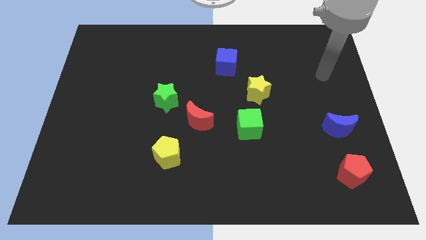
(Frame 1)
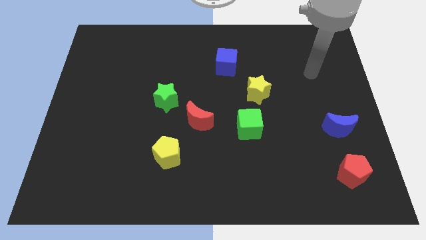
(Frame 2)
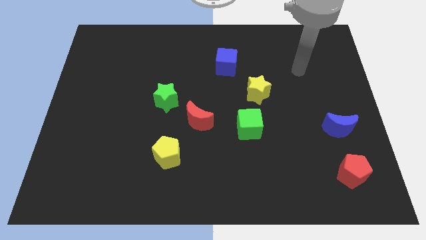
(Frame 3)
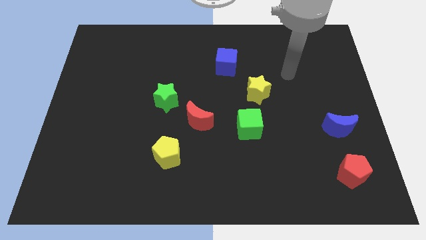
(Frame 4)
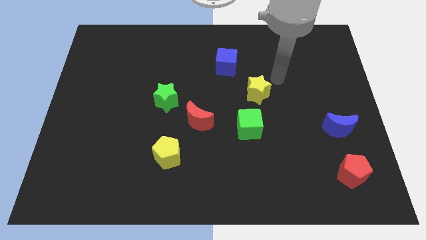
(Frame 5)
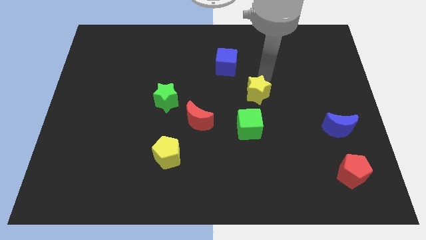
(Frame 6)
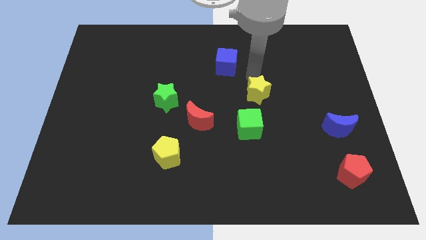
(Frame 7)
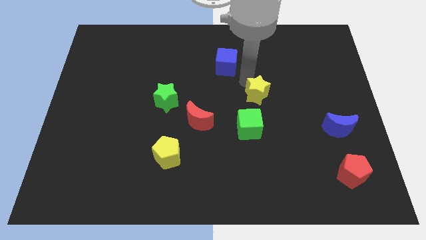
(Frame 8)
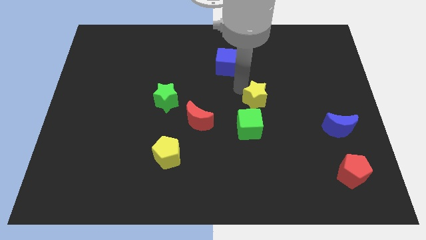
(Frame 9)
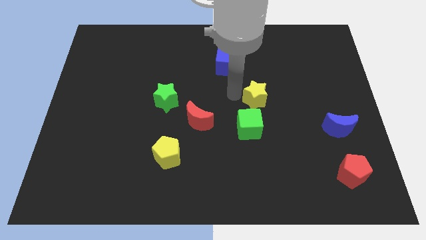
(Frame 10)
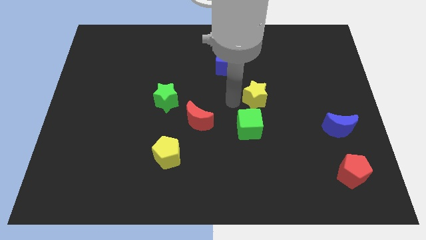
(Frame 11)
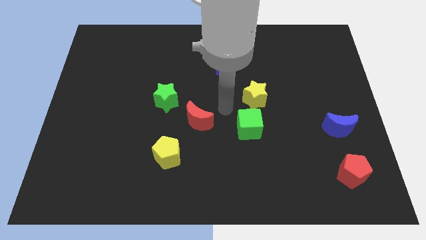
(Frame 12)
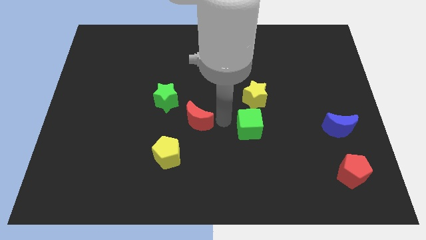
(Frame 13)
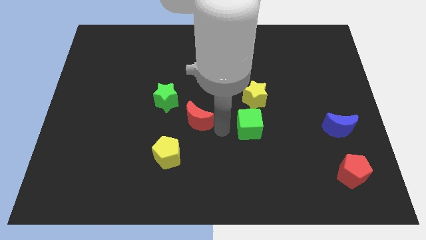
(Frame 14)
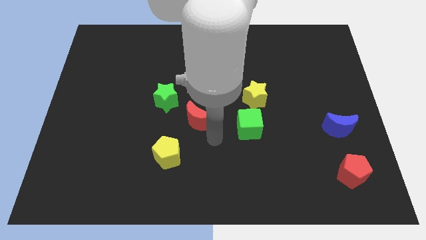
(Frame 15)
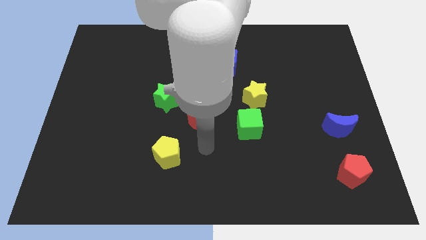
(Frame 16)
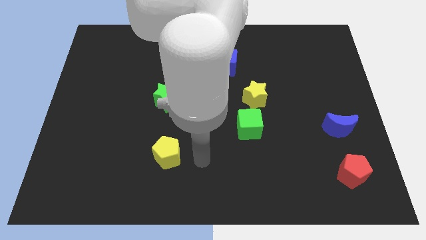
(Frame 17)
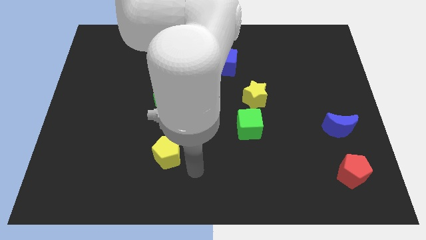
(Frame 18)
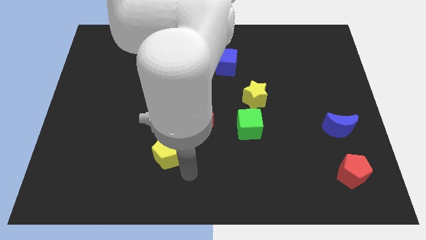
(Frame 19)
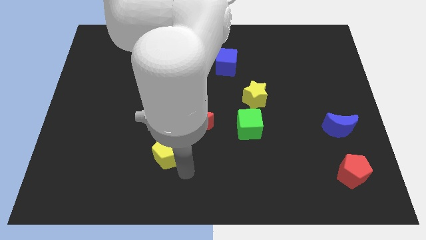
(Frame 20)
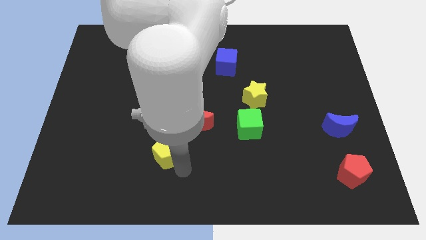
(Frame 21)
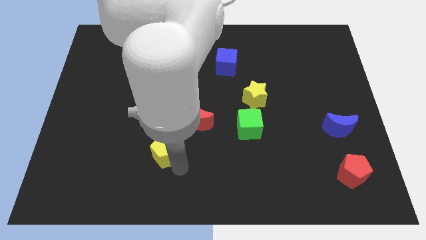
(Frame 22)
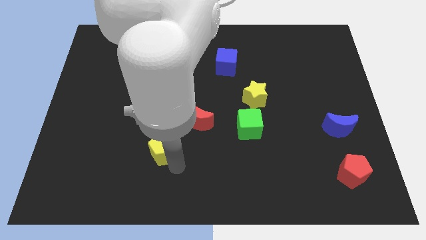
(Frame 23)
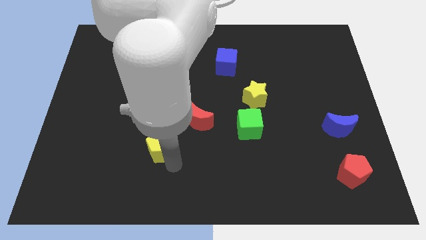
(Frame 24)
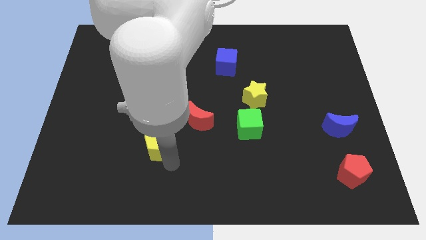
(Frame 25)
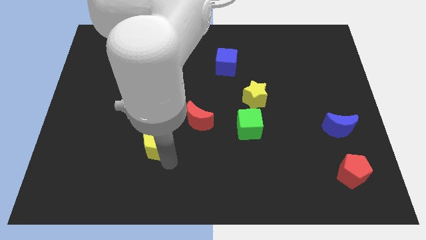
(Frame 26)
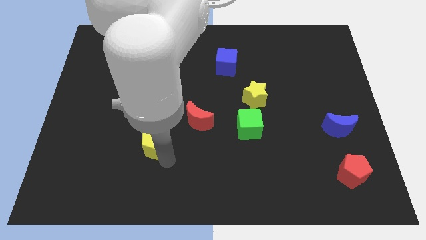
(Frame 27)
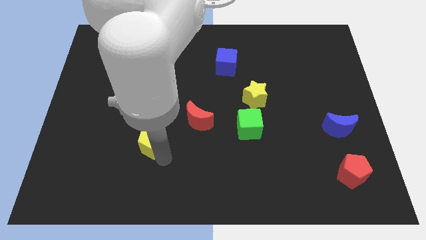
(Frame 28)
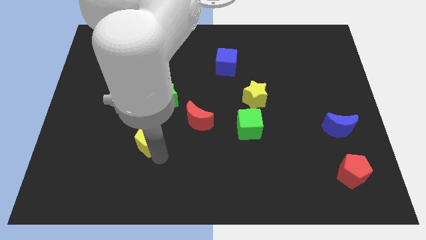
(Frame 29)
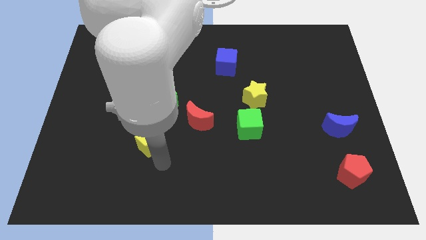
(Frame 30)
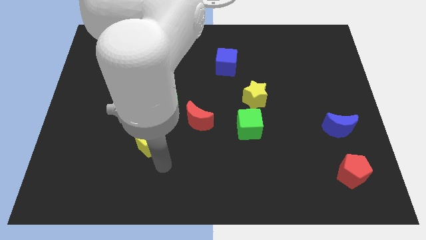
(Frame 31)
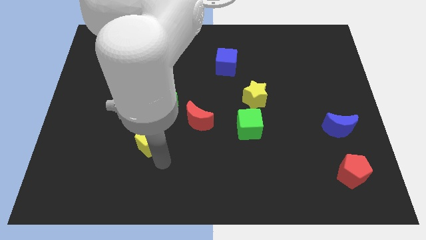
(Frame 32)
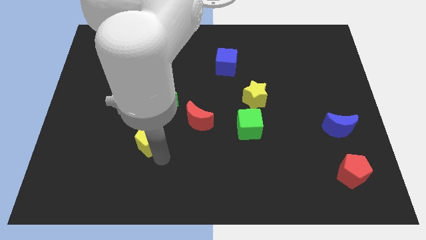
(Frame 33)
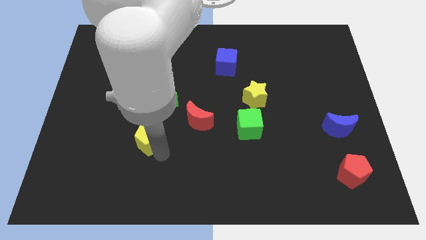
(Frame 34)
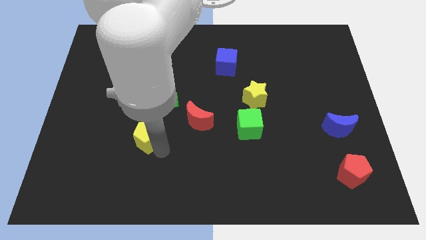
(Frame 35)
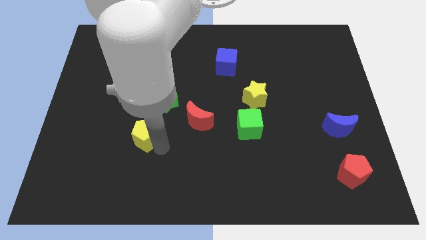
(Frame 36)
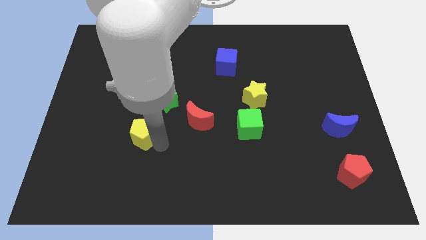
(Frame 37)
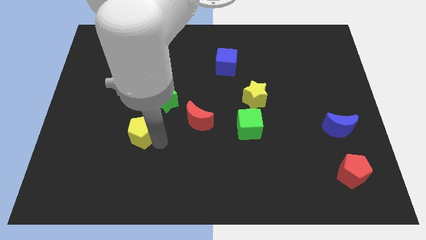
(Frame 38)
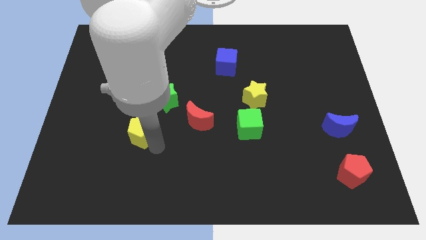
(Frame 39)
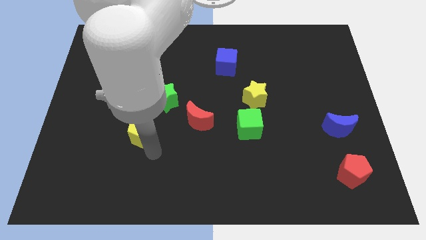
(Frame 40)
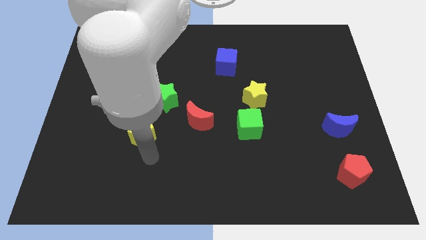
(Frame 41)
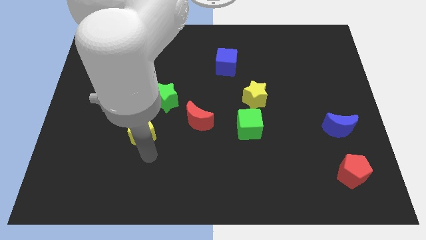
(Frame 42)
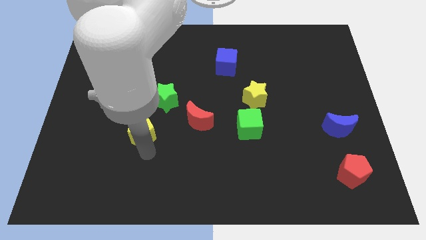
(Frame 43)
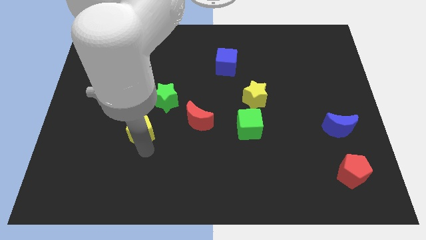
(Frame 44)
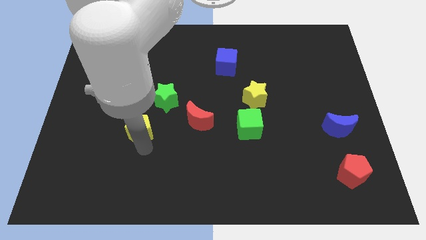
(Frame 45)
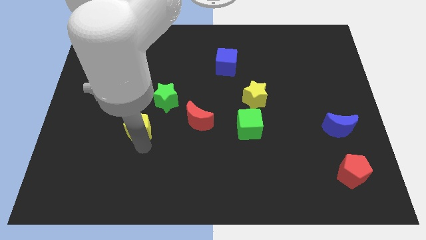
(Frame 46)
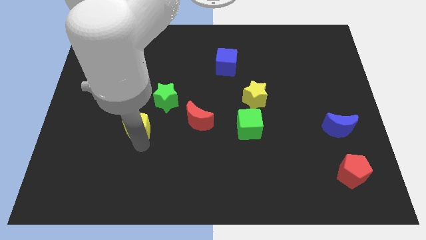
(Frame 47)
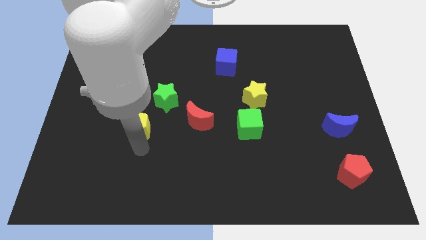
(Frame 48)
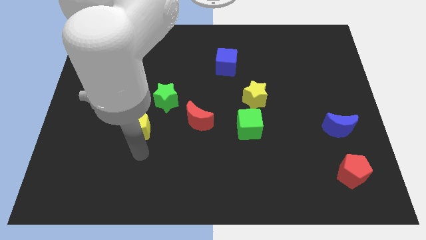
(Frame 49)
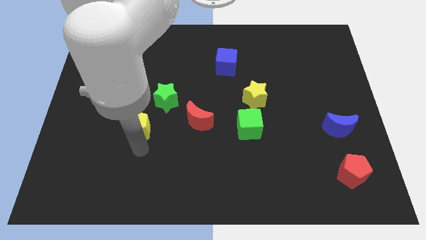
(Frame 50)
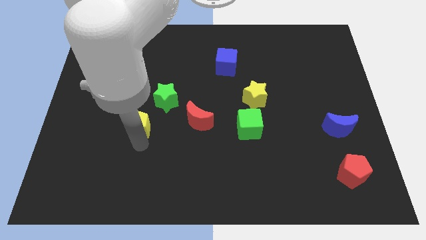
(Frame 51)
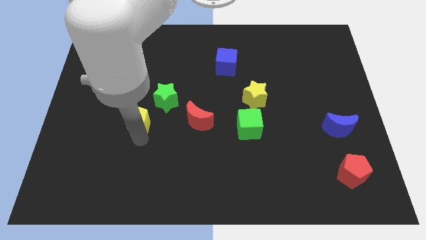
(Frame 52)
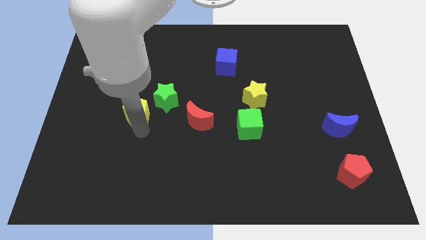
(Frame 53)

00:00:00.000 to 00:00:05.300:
push the yellow pentagon to the left of the green star

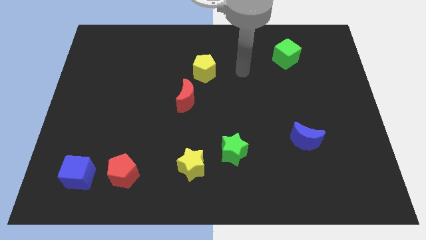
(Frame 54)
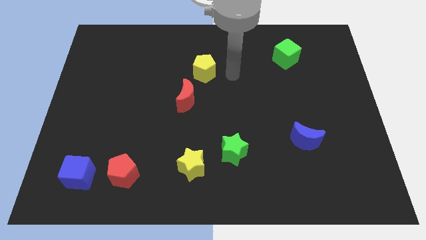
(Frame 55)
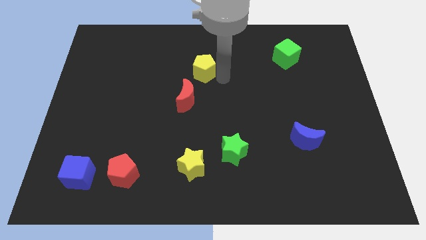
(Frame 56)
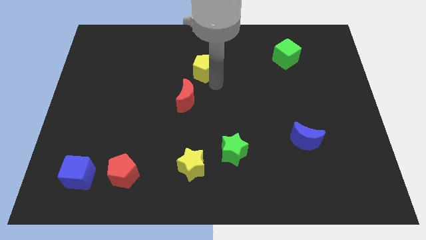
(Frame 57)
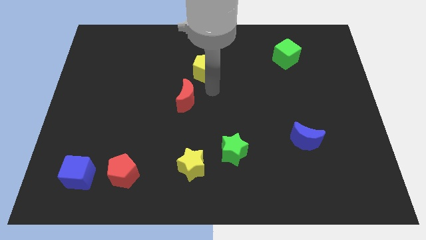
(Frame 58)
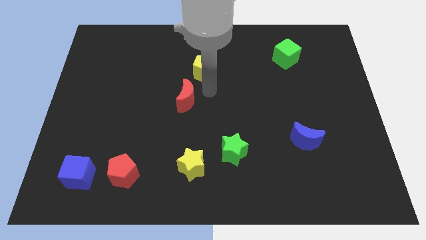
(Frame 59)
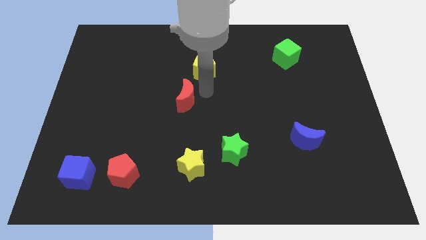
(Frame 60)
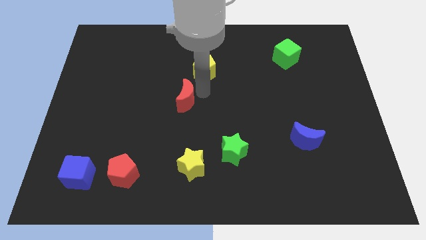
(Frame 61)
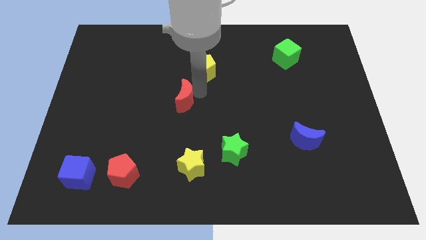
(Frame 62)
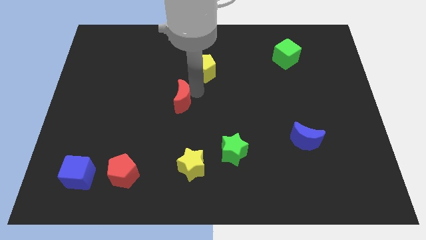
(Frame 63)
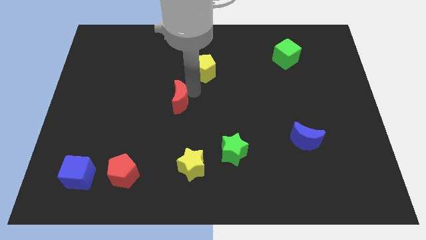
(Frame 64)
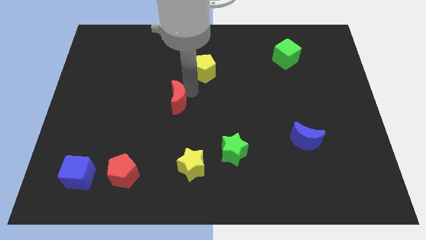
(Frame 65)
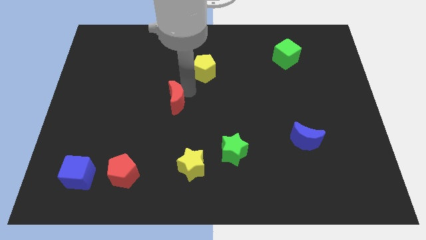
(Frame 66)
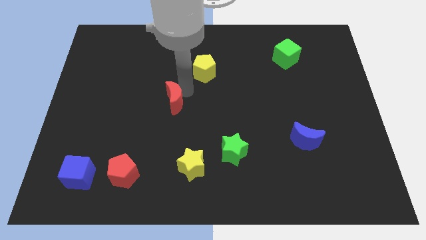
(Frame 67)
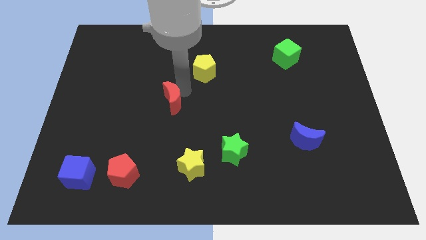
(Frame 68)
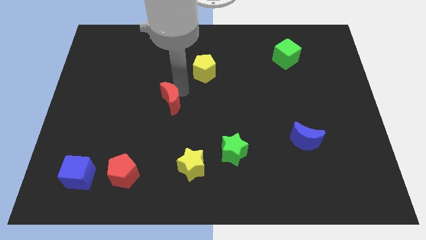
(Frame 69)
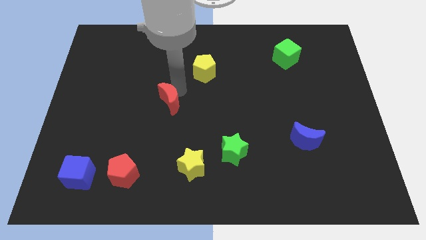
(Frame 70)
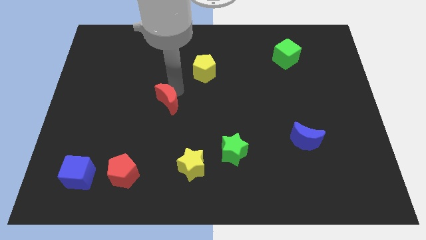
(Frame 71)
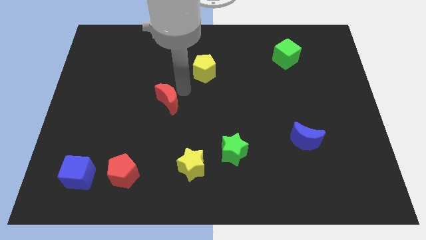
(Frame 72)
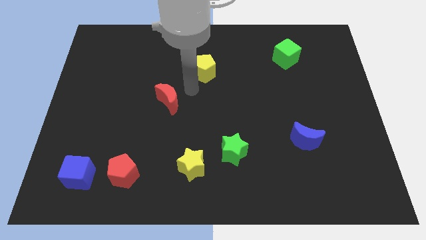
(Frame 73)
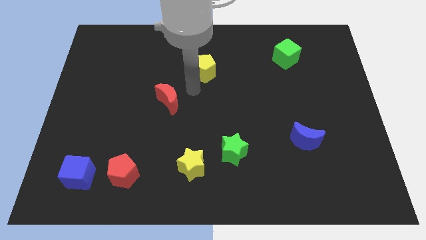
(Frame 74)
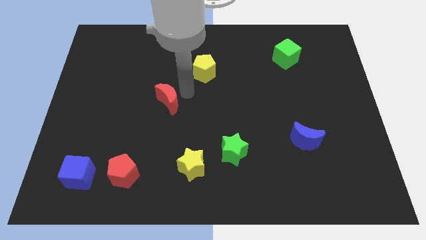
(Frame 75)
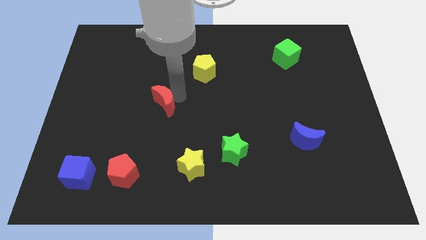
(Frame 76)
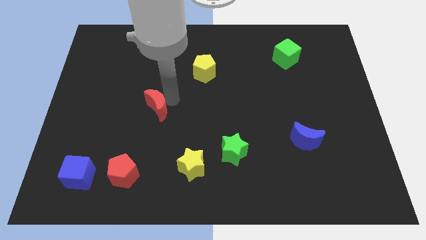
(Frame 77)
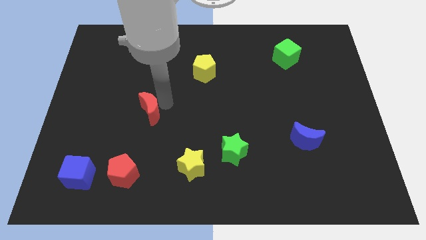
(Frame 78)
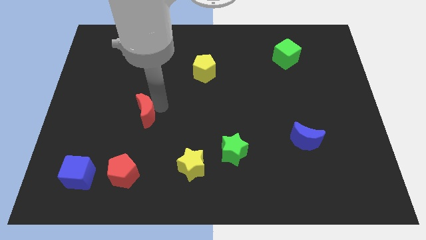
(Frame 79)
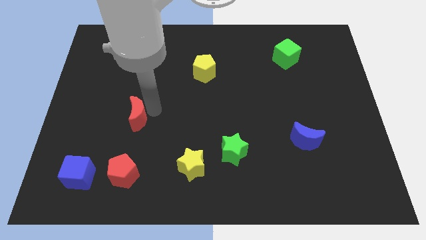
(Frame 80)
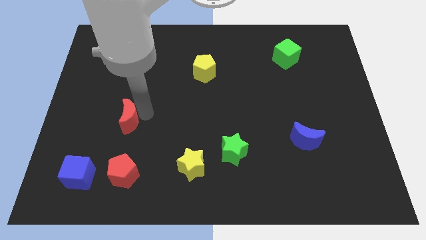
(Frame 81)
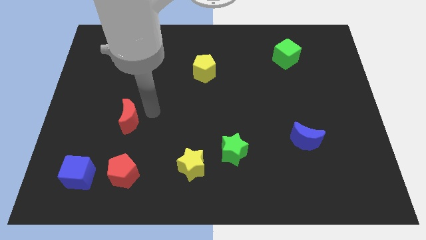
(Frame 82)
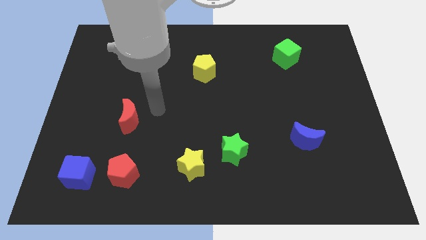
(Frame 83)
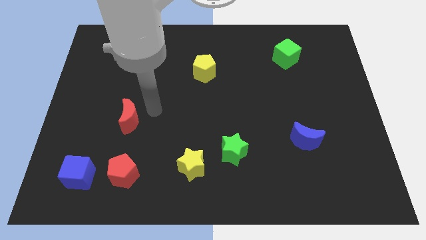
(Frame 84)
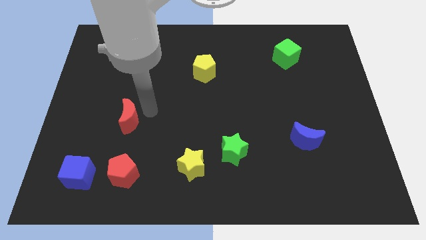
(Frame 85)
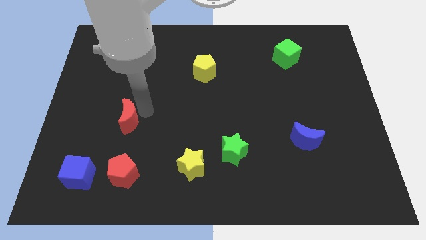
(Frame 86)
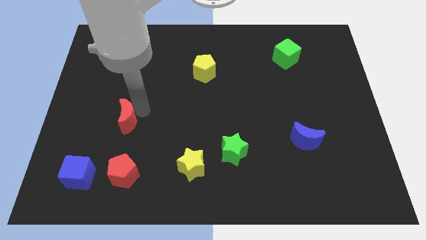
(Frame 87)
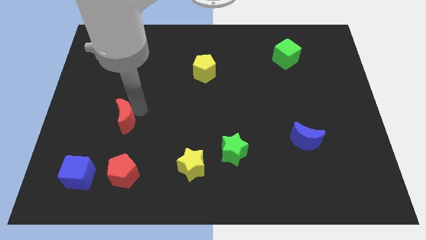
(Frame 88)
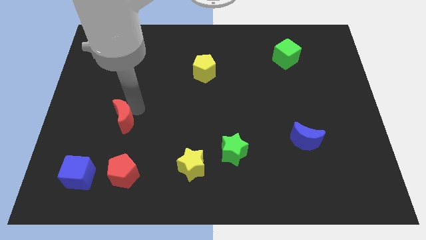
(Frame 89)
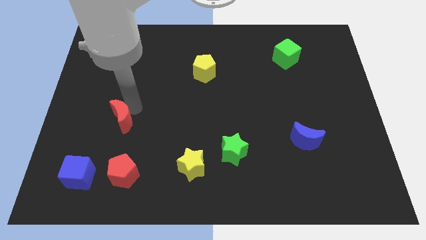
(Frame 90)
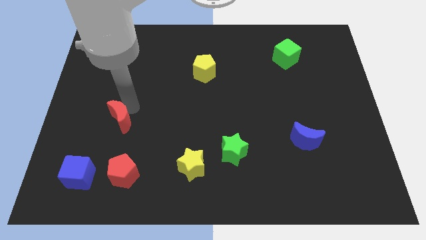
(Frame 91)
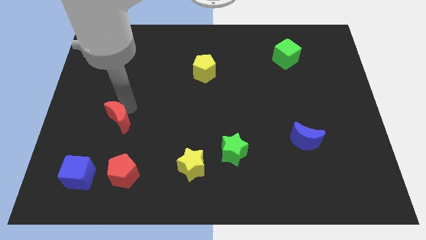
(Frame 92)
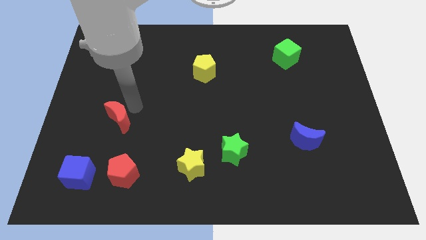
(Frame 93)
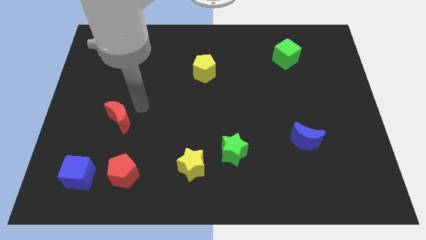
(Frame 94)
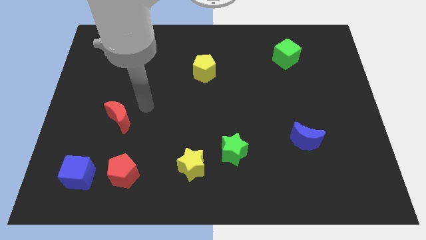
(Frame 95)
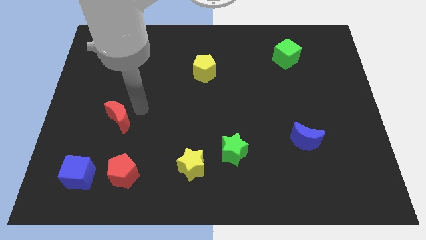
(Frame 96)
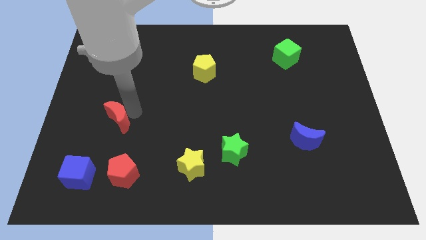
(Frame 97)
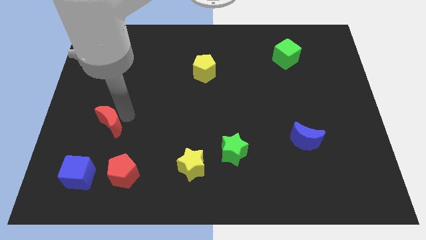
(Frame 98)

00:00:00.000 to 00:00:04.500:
put the red moon to the top side of the blue cube
